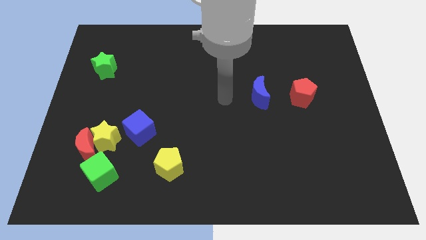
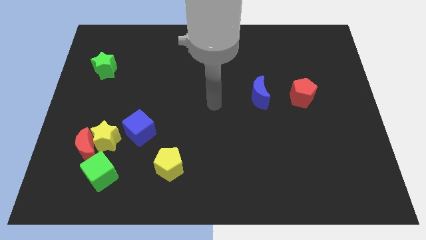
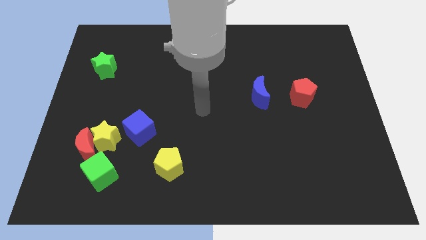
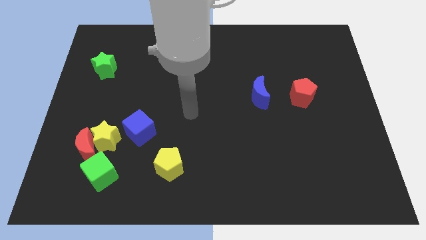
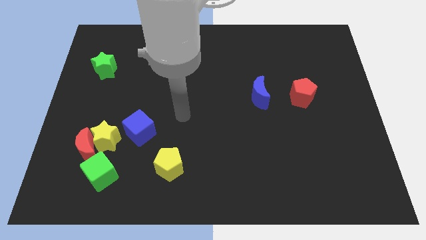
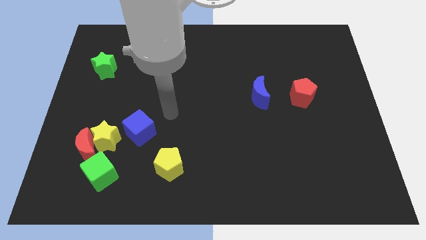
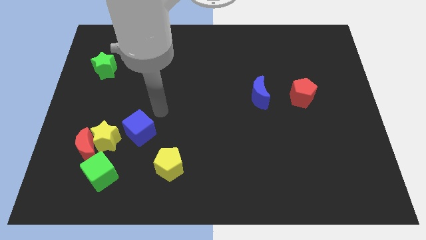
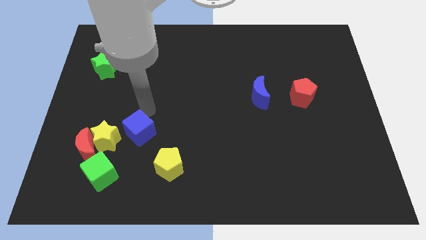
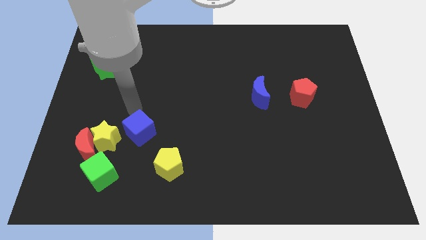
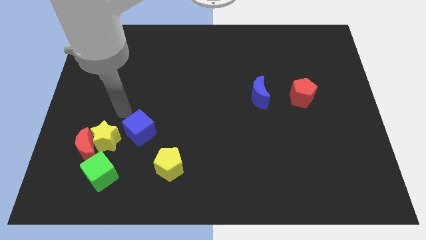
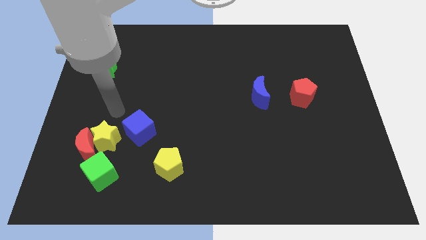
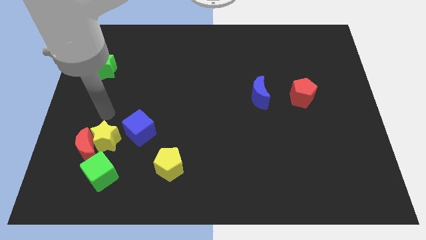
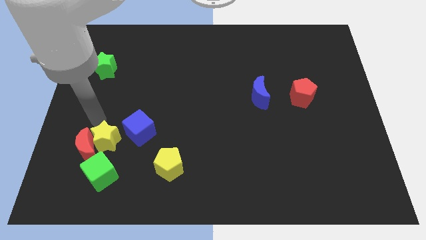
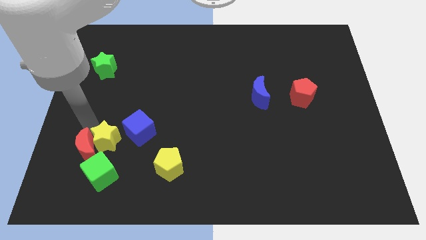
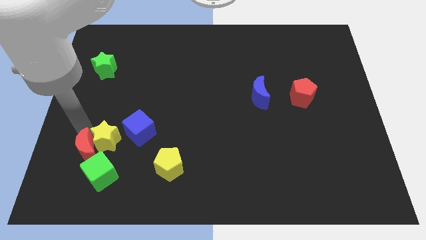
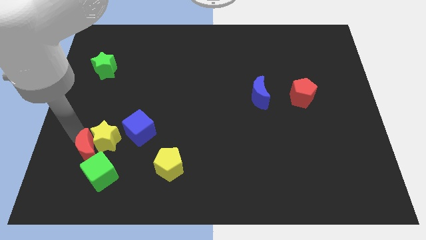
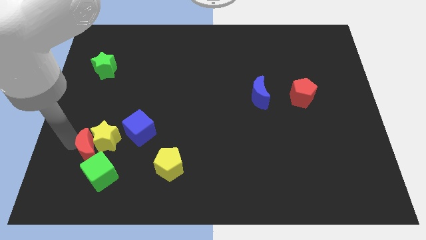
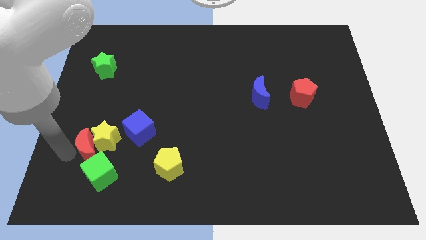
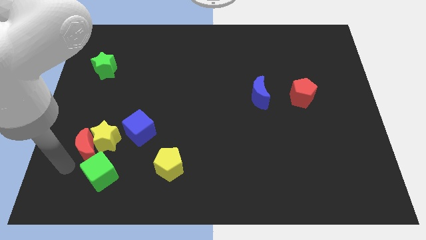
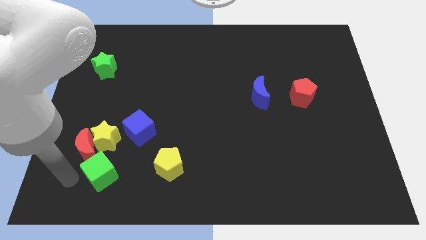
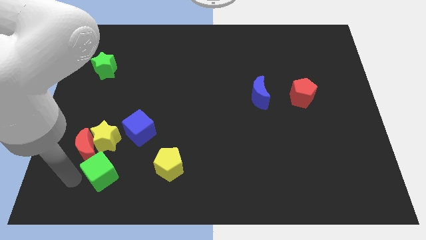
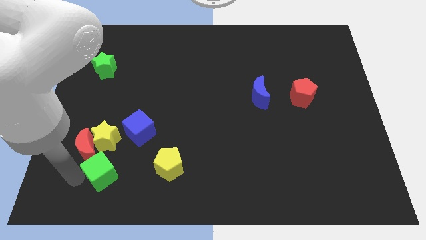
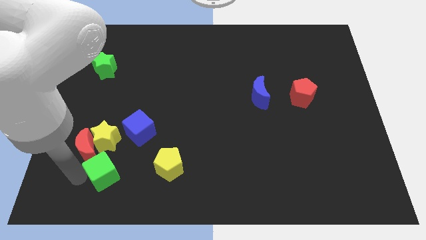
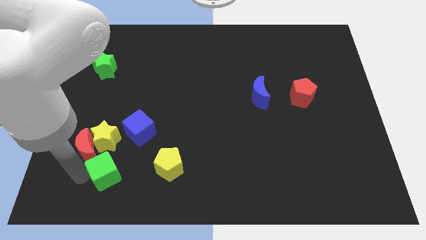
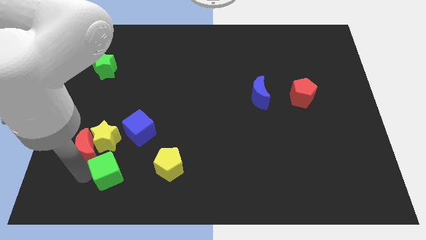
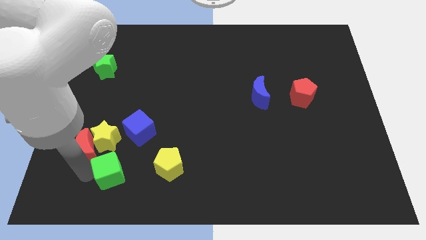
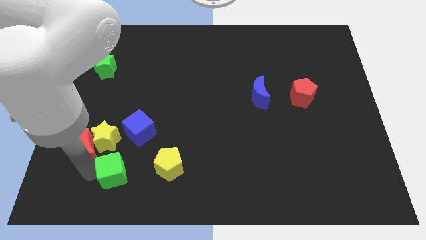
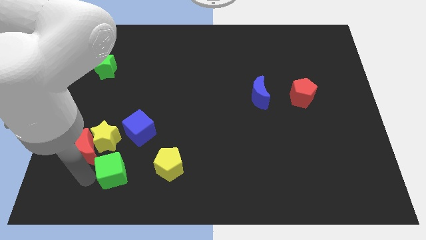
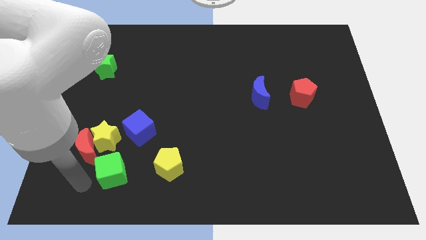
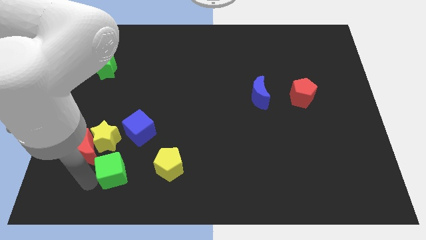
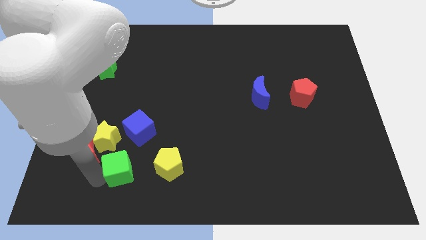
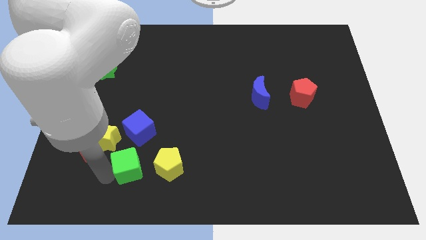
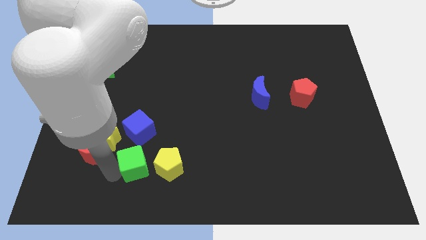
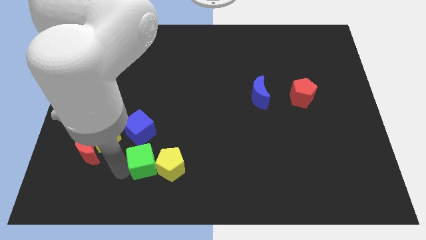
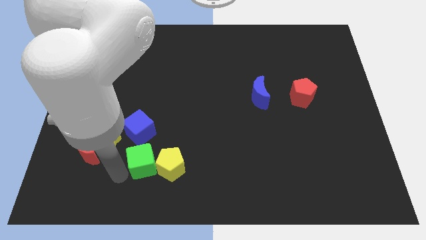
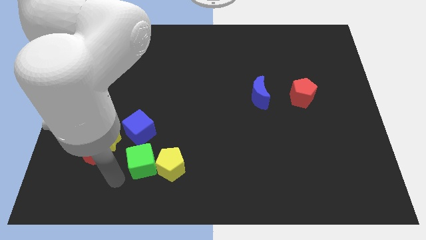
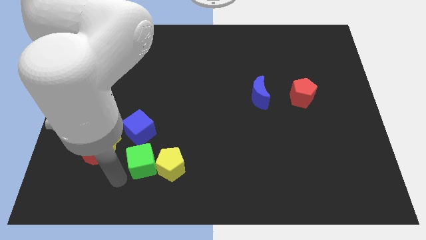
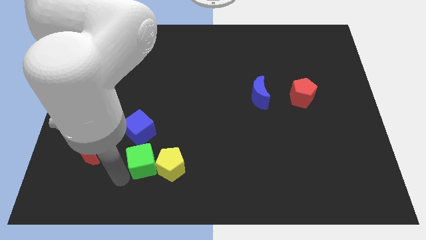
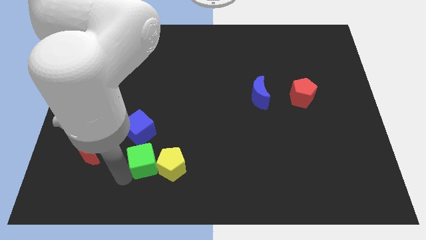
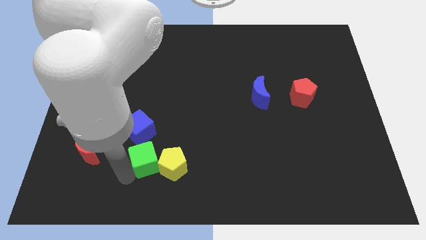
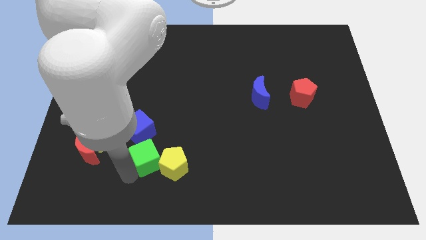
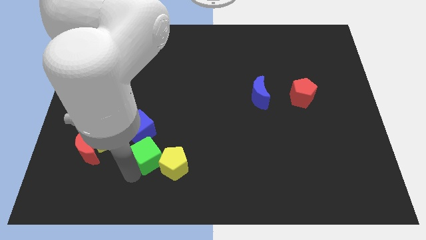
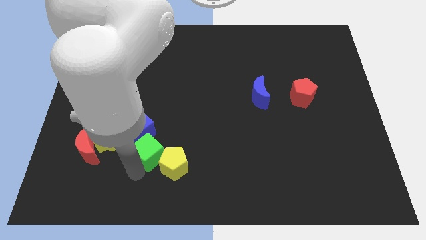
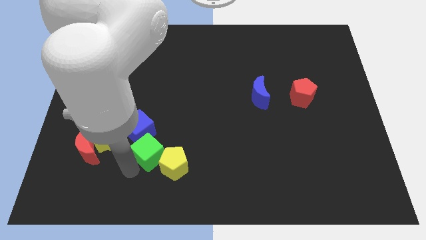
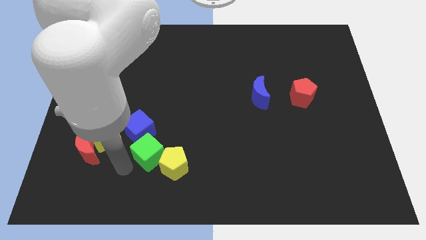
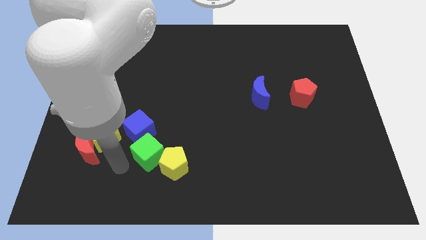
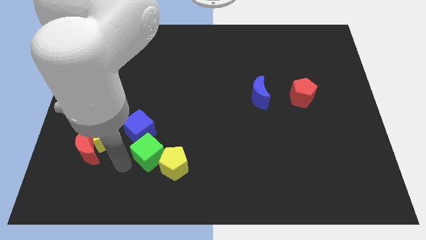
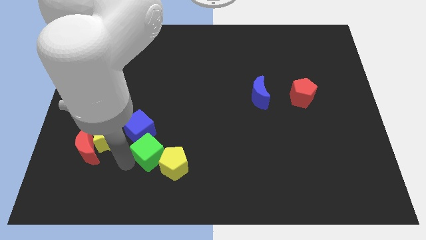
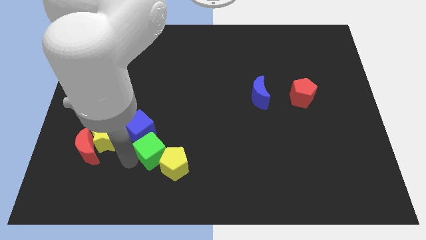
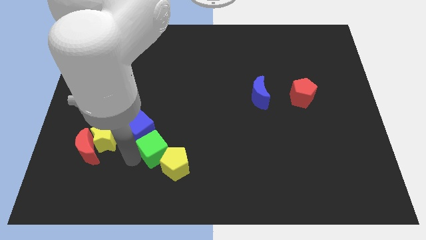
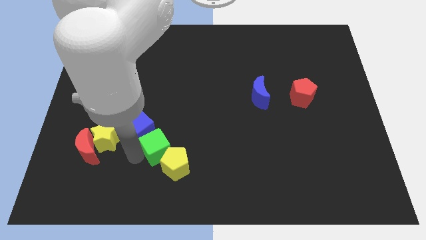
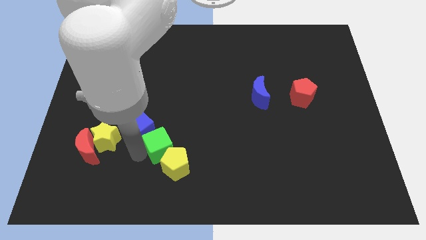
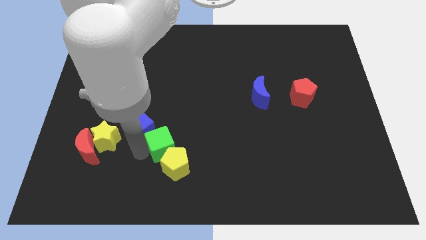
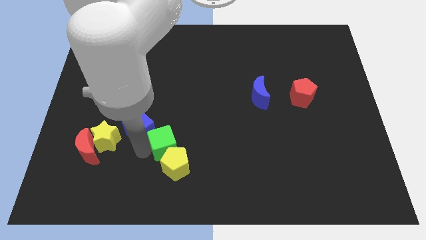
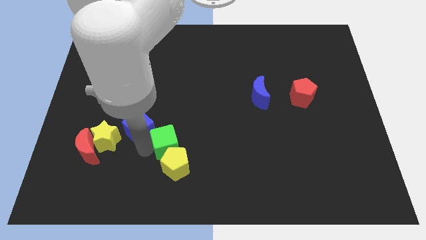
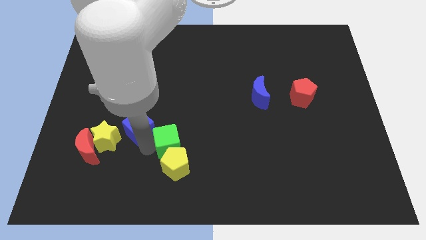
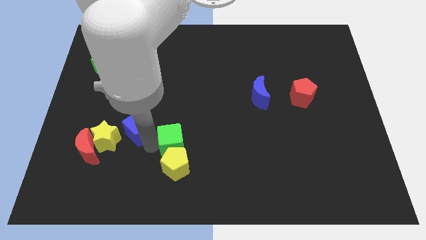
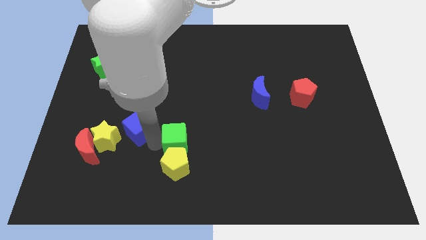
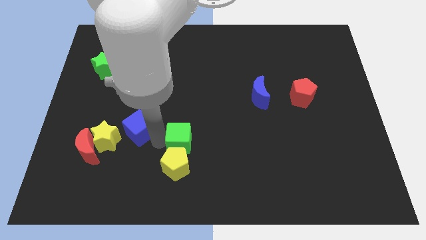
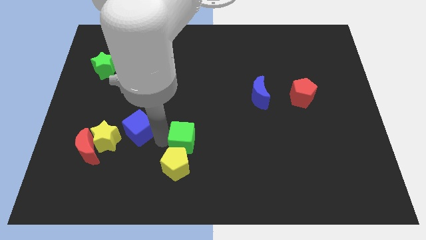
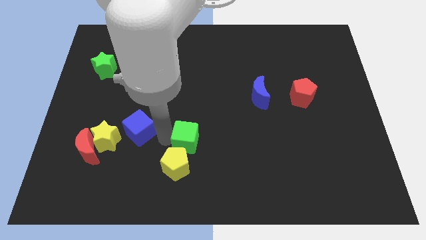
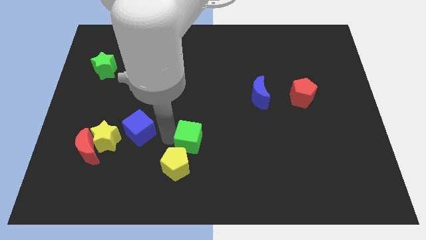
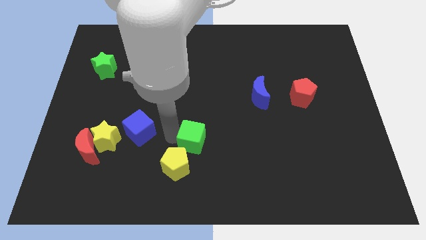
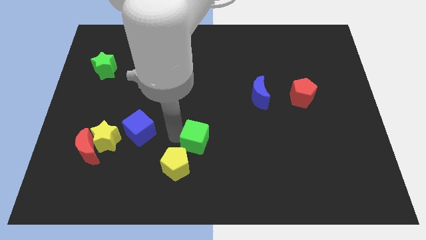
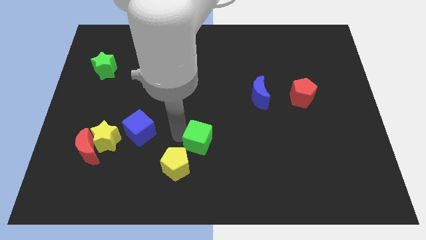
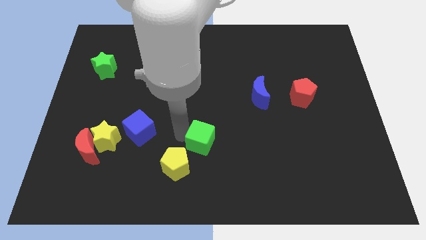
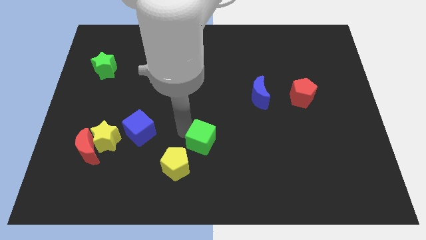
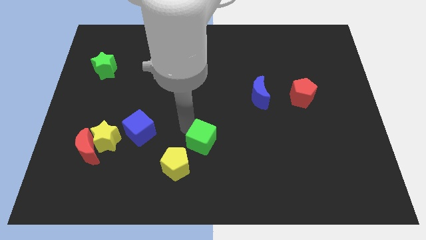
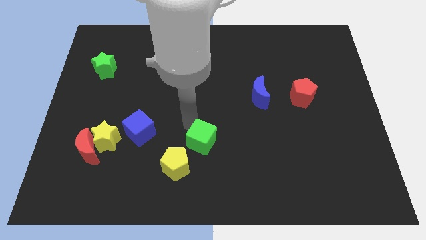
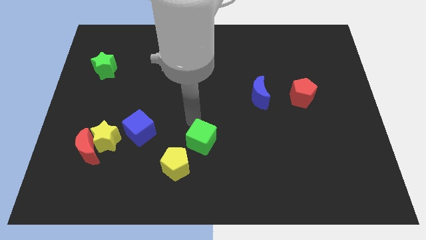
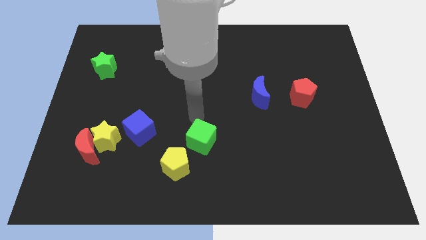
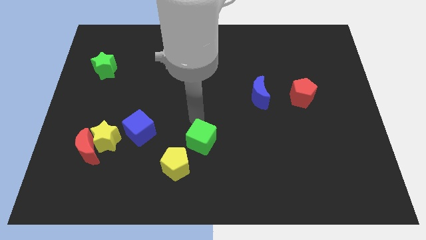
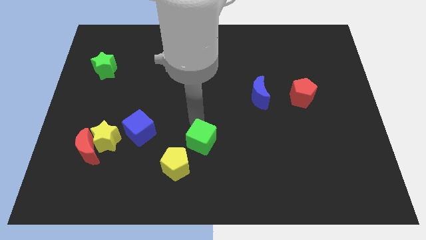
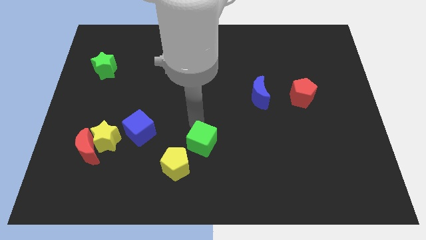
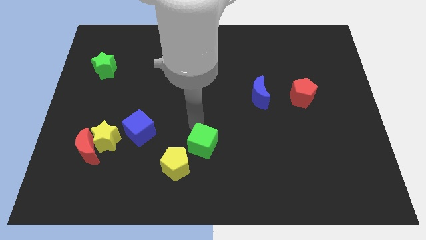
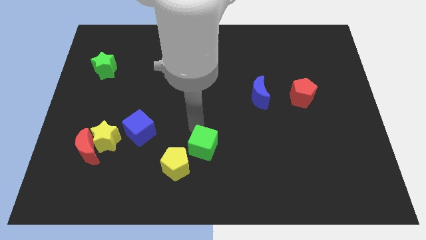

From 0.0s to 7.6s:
push the green cube to the right side of the yellow pentagon
